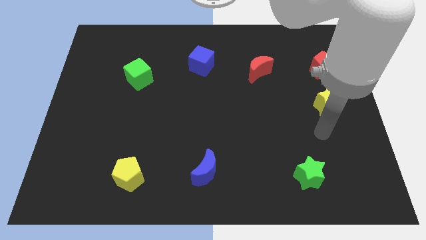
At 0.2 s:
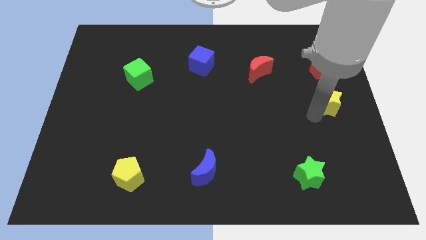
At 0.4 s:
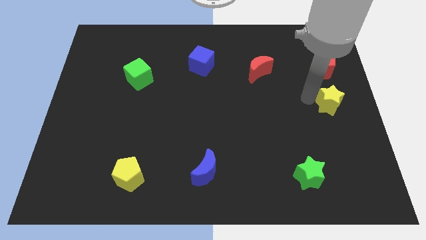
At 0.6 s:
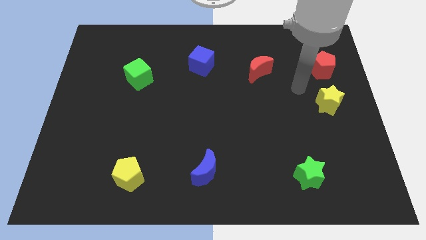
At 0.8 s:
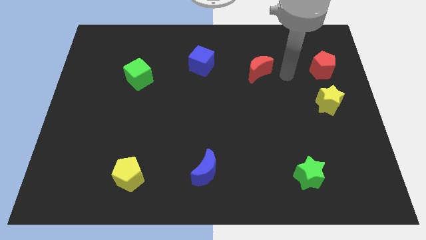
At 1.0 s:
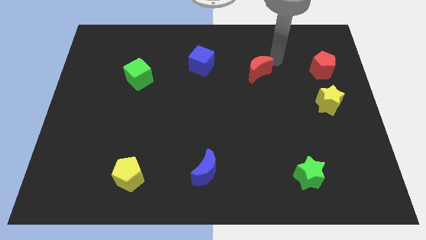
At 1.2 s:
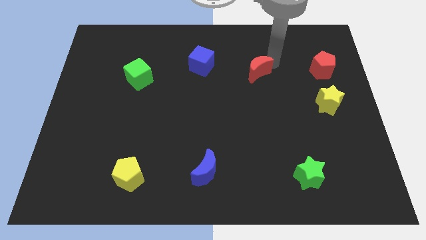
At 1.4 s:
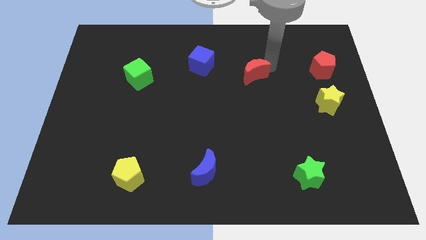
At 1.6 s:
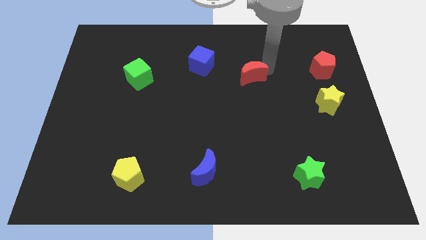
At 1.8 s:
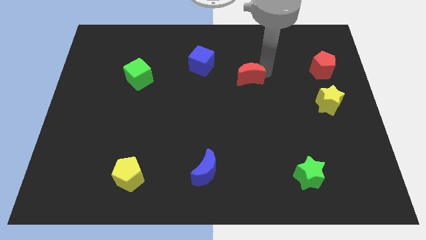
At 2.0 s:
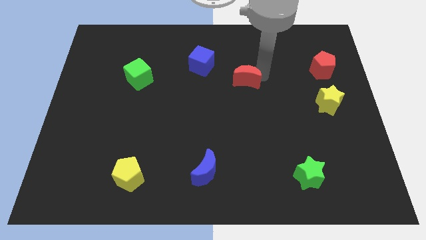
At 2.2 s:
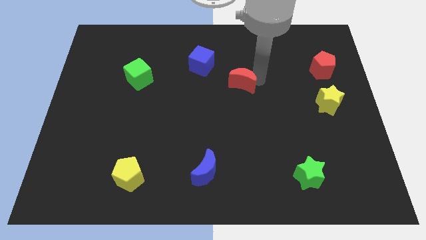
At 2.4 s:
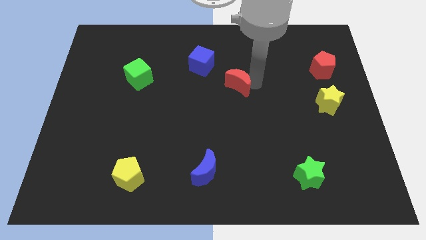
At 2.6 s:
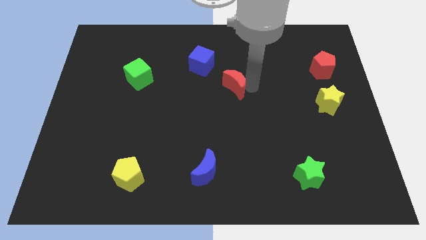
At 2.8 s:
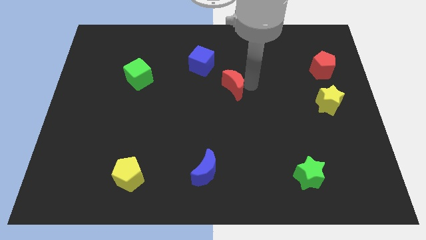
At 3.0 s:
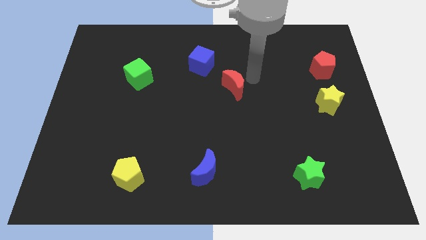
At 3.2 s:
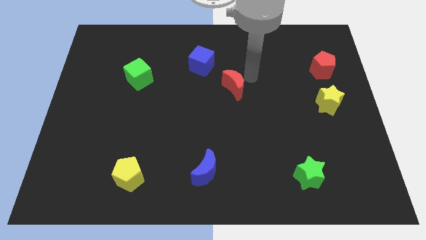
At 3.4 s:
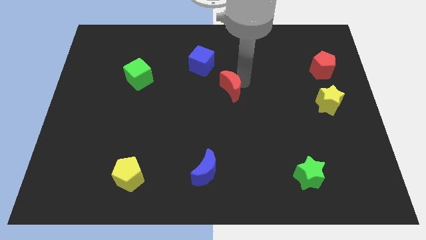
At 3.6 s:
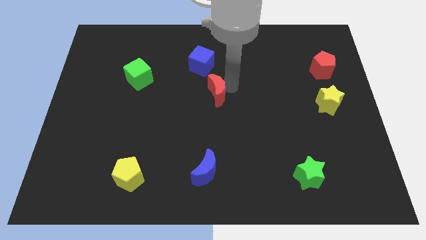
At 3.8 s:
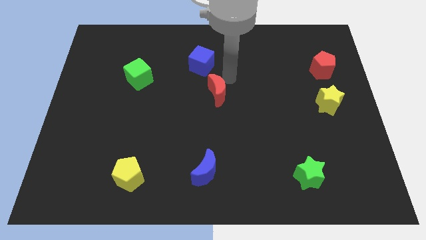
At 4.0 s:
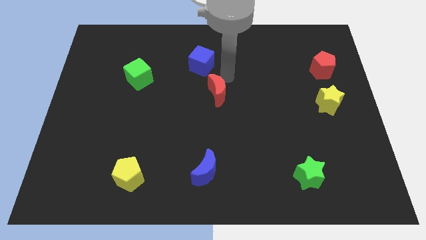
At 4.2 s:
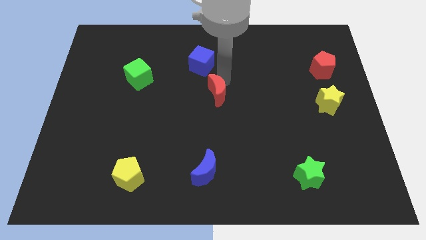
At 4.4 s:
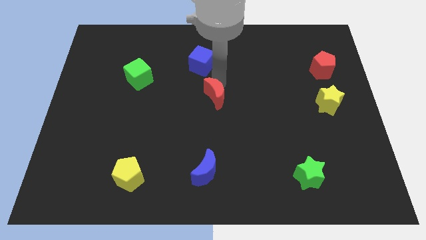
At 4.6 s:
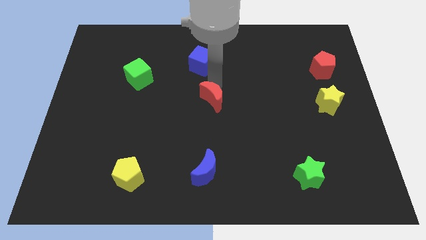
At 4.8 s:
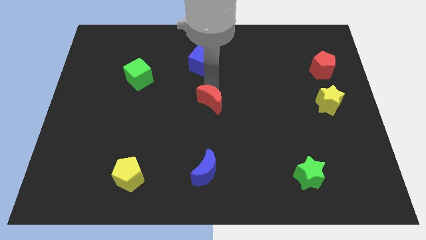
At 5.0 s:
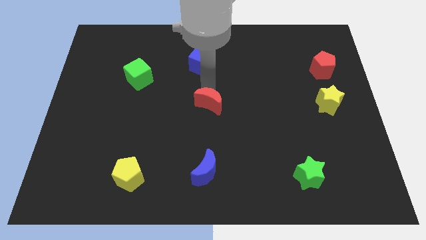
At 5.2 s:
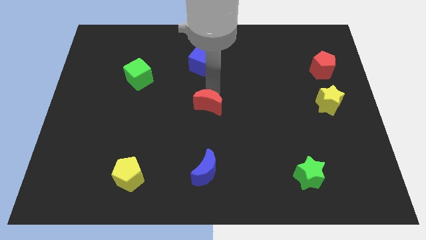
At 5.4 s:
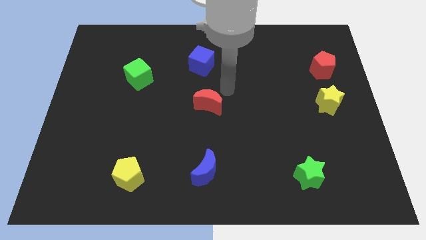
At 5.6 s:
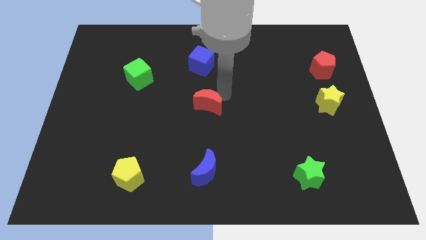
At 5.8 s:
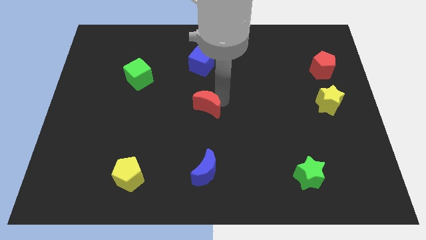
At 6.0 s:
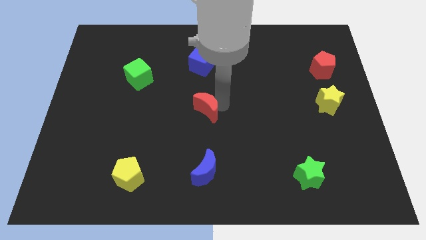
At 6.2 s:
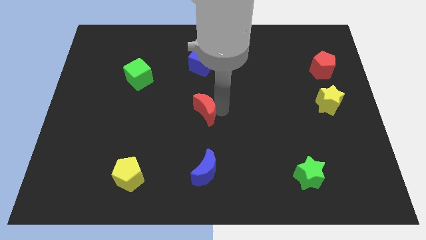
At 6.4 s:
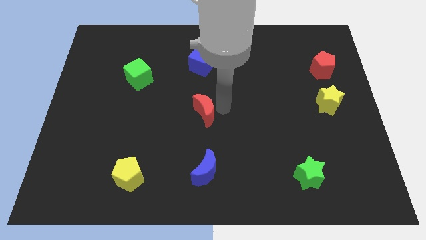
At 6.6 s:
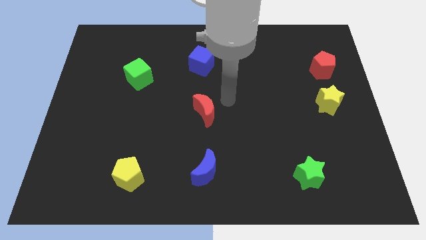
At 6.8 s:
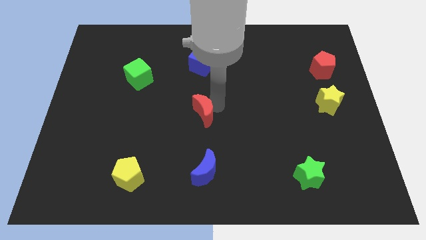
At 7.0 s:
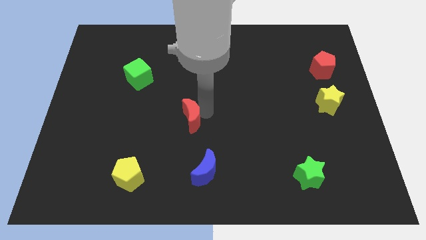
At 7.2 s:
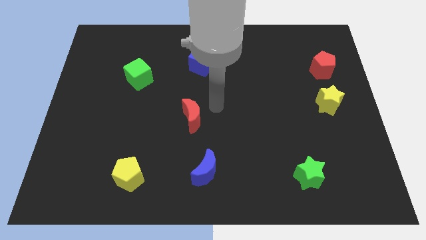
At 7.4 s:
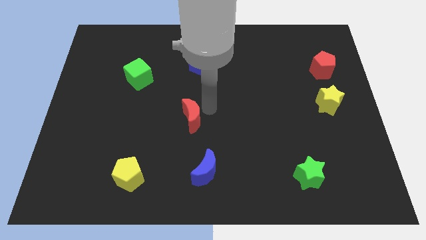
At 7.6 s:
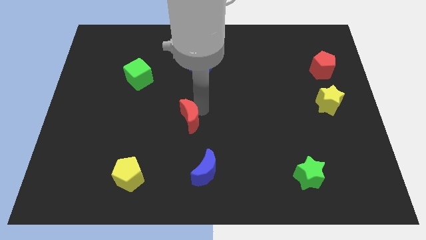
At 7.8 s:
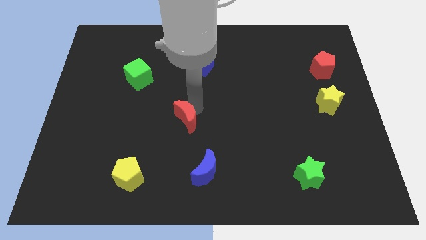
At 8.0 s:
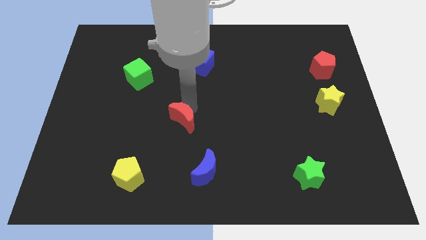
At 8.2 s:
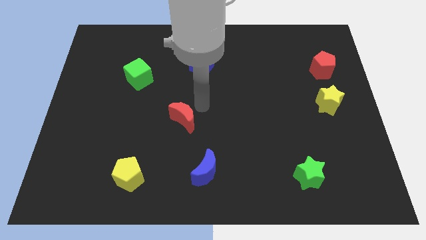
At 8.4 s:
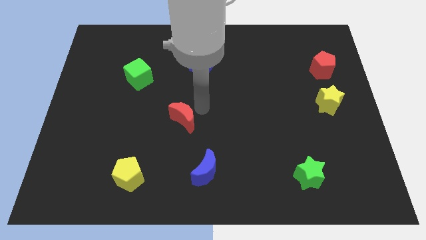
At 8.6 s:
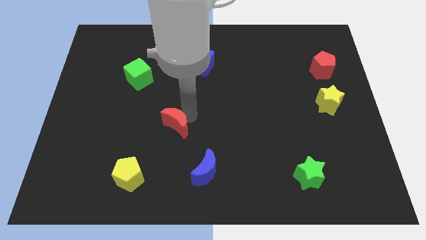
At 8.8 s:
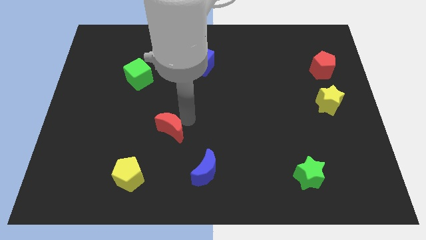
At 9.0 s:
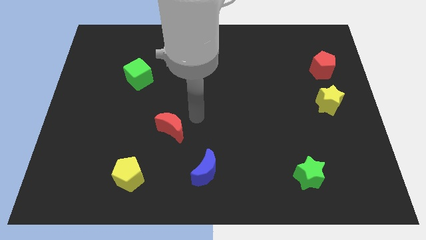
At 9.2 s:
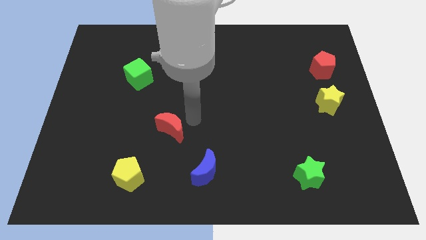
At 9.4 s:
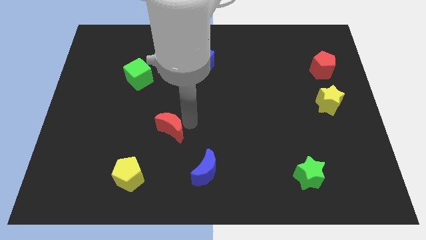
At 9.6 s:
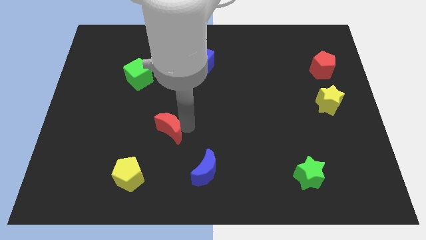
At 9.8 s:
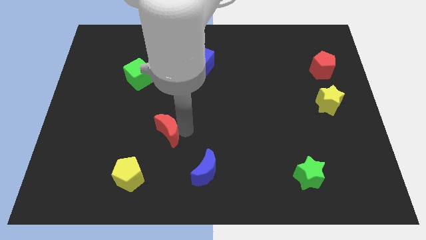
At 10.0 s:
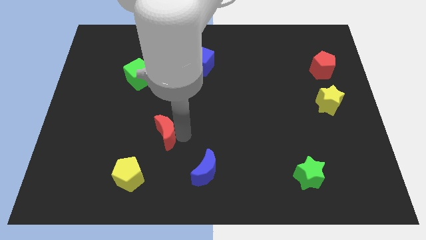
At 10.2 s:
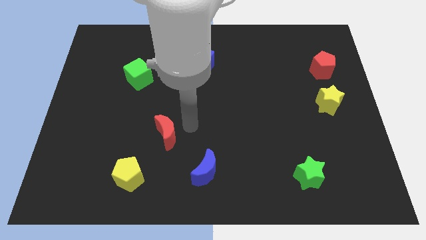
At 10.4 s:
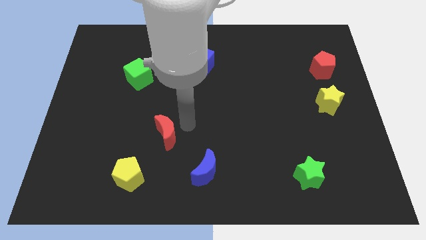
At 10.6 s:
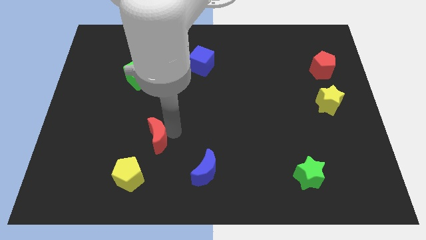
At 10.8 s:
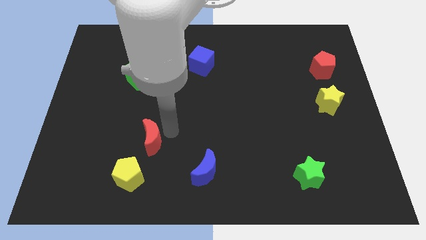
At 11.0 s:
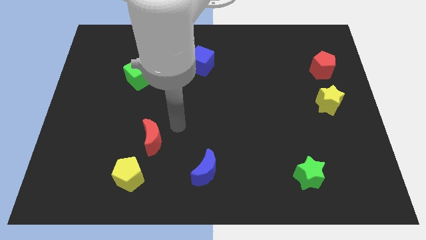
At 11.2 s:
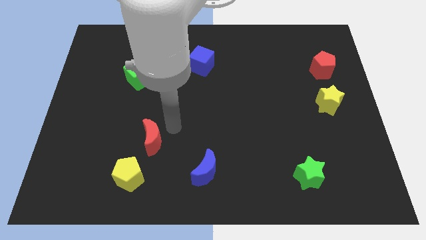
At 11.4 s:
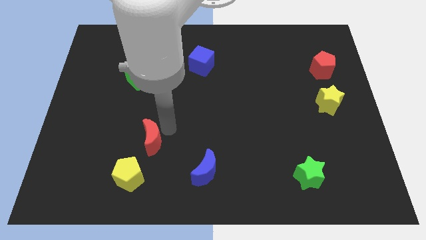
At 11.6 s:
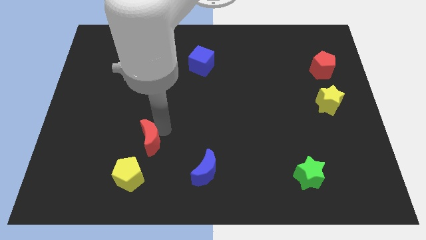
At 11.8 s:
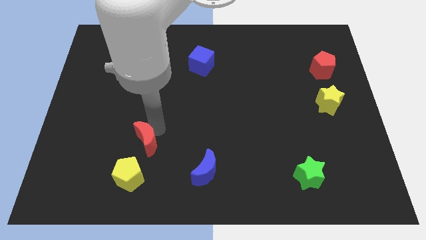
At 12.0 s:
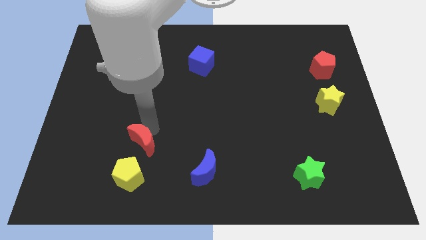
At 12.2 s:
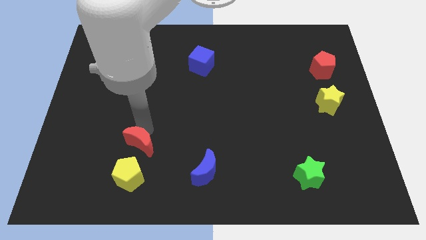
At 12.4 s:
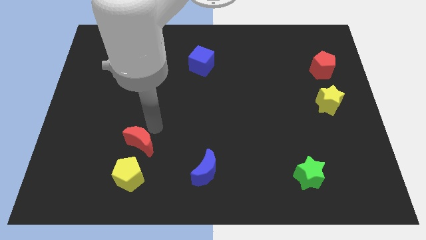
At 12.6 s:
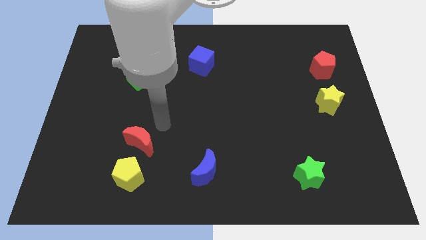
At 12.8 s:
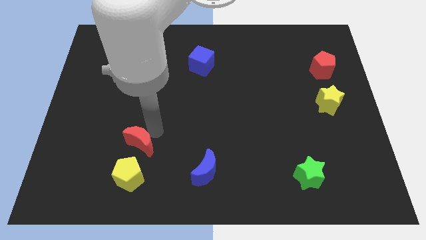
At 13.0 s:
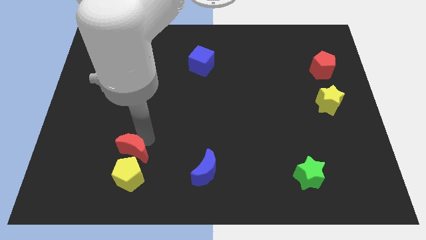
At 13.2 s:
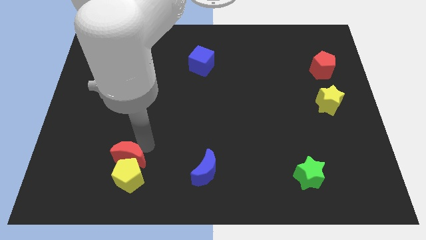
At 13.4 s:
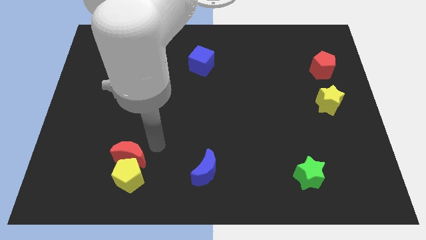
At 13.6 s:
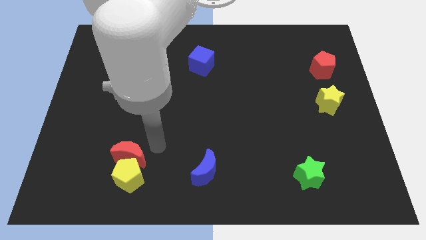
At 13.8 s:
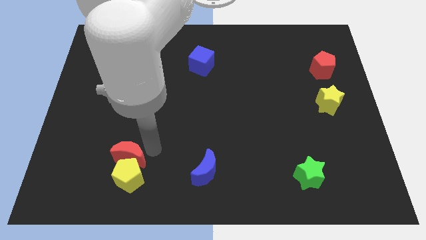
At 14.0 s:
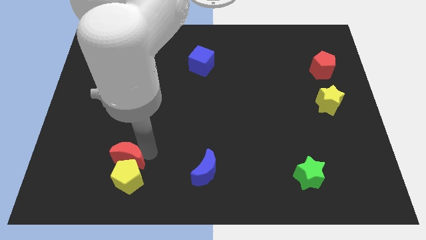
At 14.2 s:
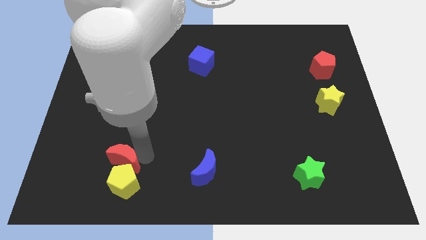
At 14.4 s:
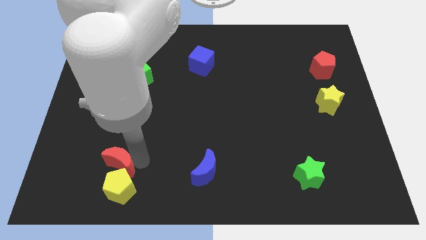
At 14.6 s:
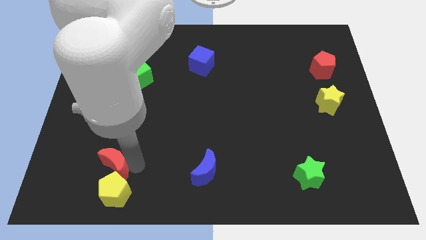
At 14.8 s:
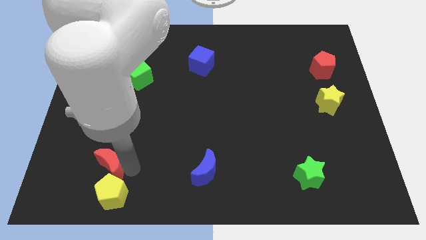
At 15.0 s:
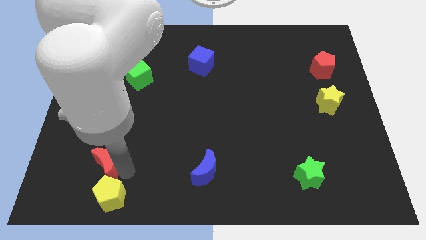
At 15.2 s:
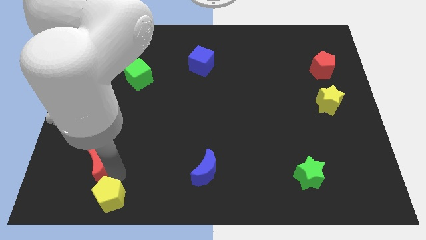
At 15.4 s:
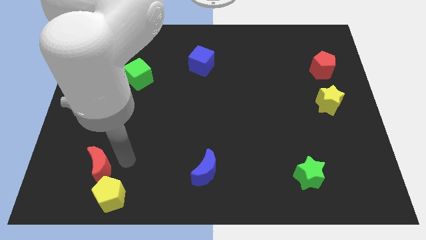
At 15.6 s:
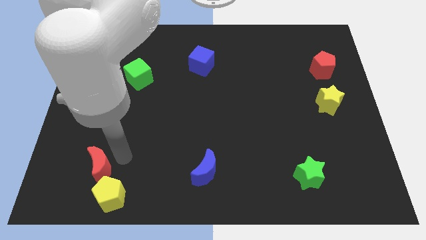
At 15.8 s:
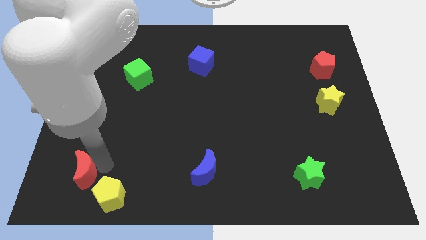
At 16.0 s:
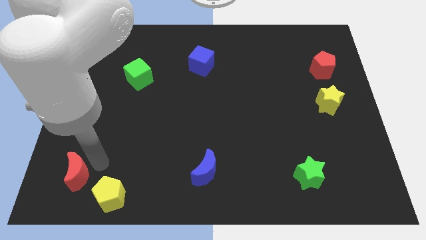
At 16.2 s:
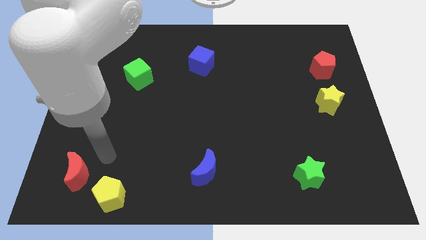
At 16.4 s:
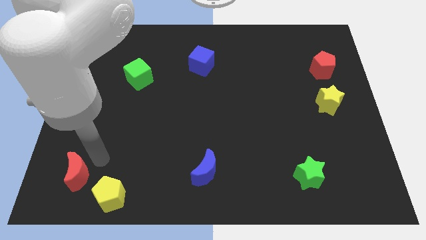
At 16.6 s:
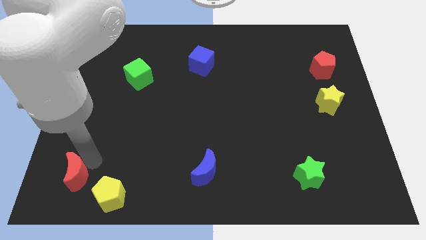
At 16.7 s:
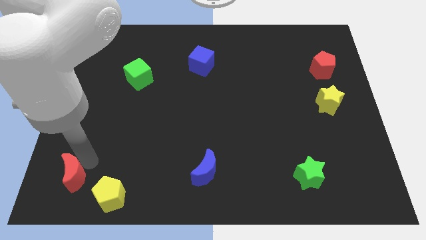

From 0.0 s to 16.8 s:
move the red moon to the bottom left corner
